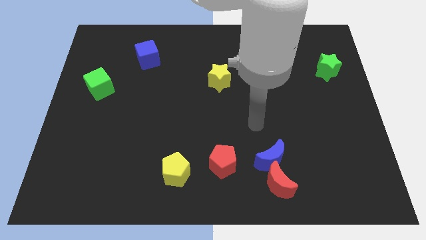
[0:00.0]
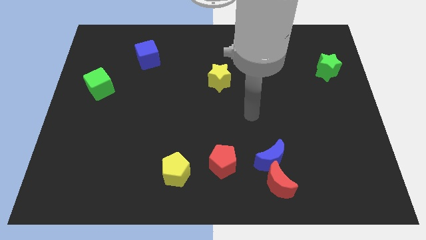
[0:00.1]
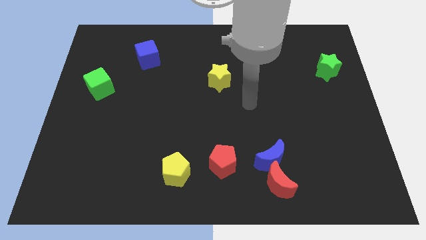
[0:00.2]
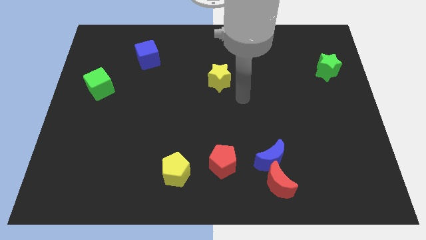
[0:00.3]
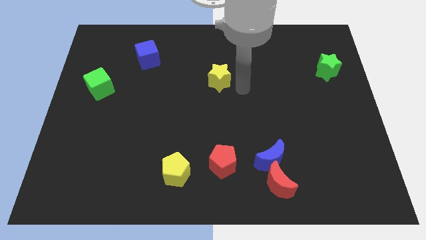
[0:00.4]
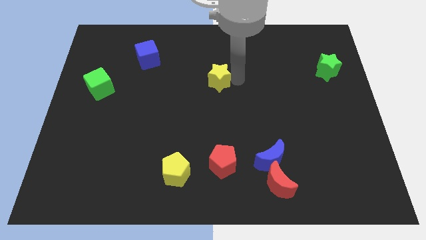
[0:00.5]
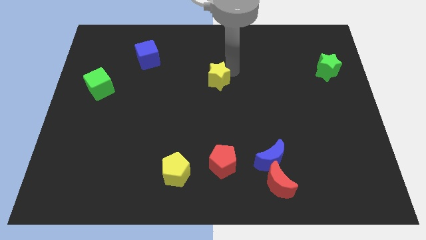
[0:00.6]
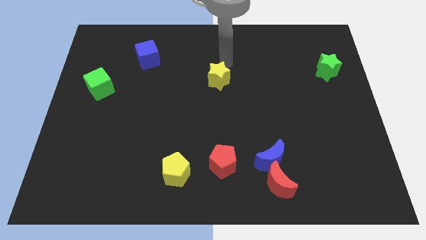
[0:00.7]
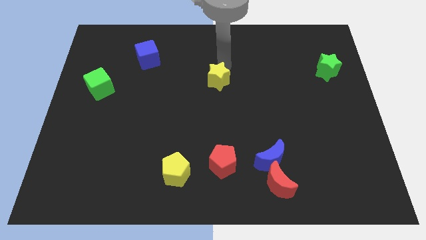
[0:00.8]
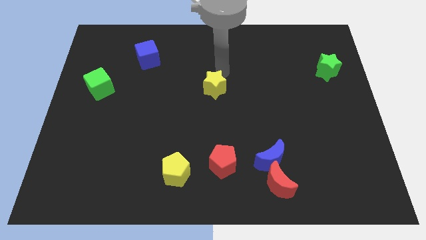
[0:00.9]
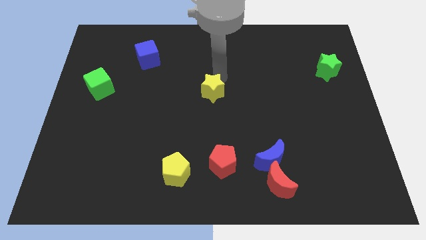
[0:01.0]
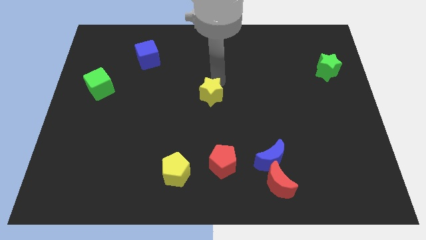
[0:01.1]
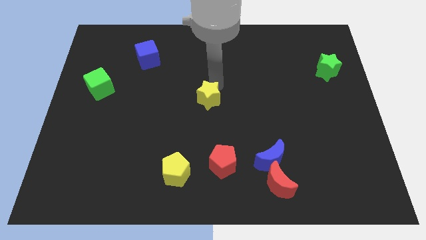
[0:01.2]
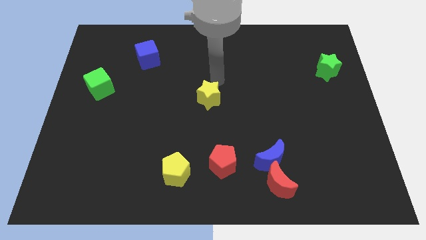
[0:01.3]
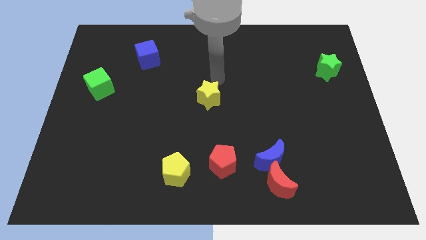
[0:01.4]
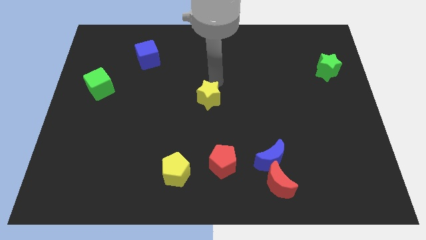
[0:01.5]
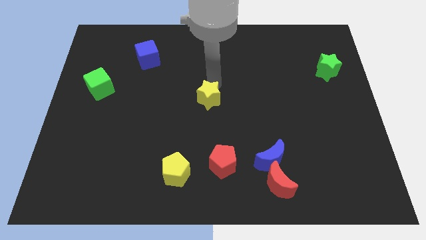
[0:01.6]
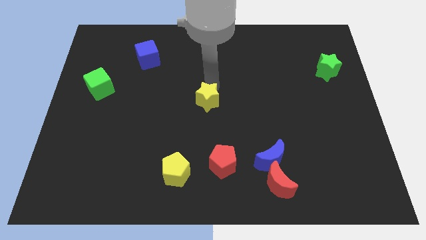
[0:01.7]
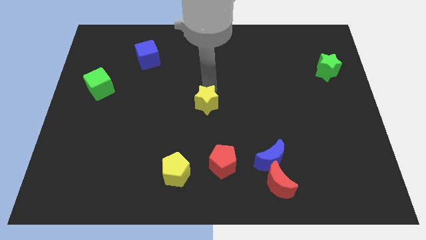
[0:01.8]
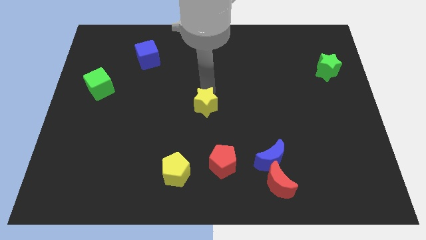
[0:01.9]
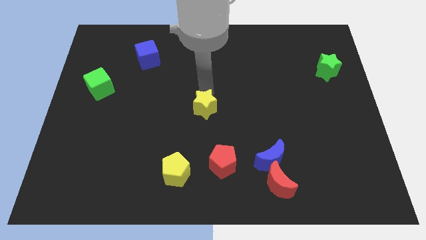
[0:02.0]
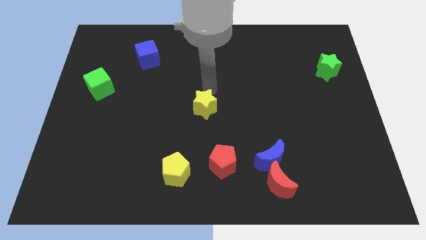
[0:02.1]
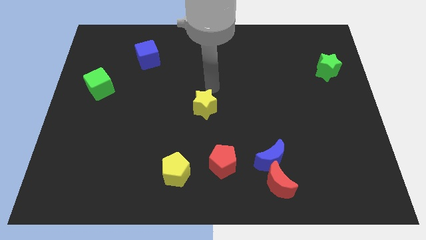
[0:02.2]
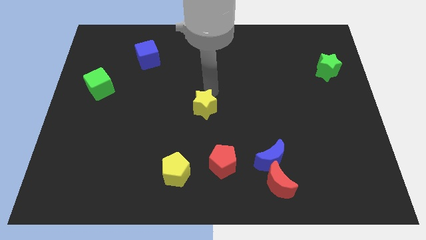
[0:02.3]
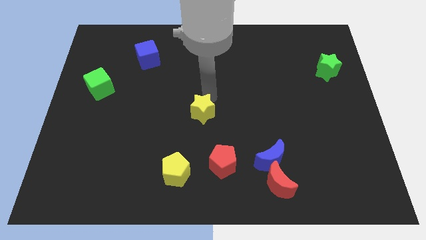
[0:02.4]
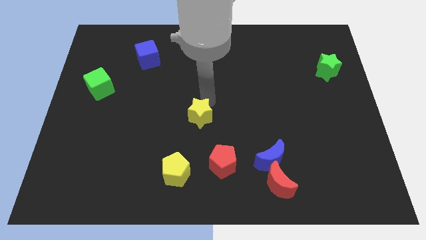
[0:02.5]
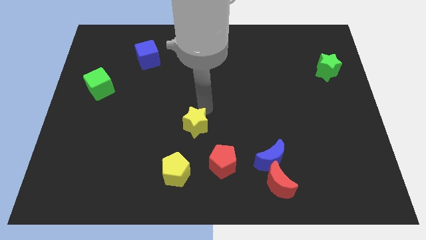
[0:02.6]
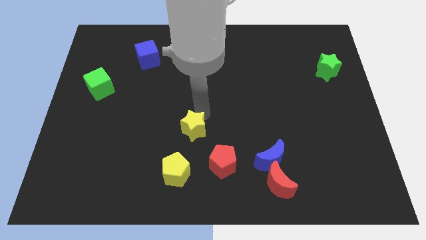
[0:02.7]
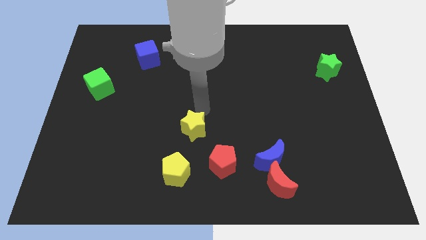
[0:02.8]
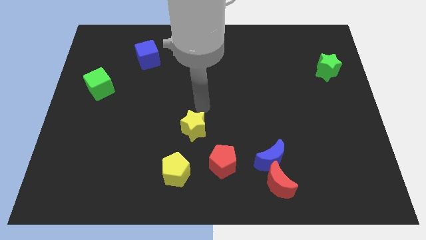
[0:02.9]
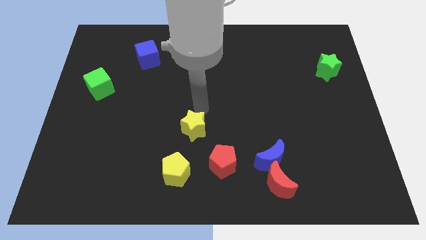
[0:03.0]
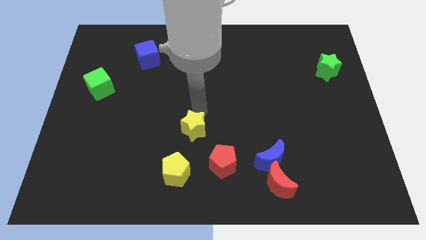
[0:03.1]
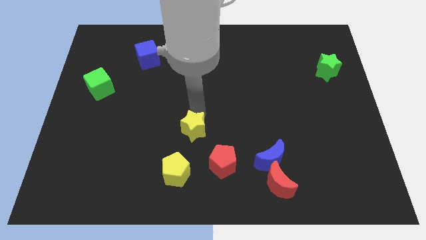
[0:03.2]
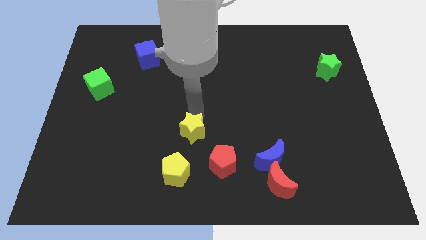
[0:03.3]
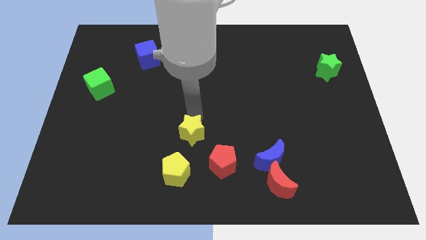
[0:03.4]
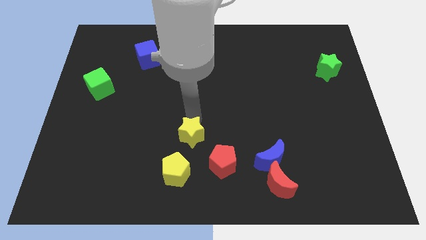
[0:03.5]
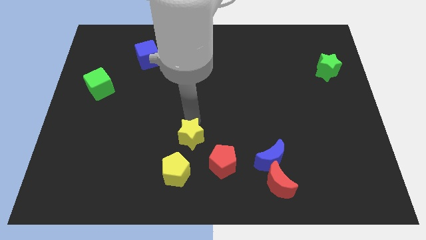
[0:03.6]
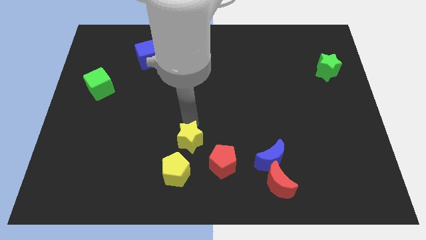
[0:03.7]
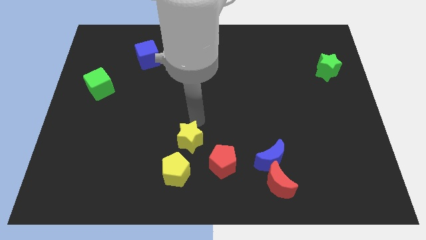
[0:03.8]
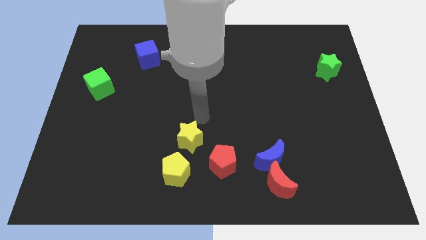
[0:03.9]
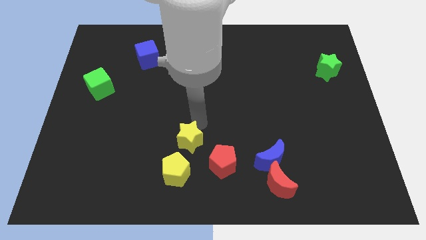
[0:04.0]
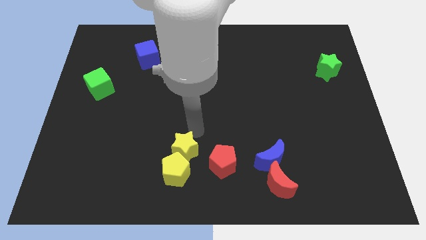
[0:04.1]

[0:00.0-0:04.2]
push the yellow star close to the yellow pentagon

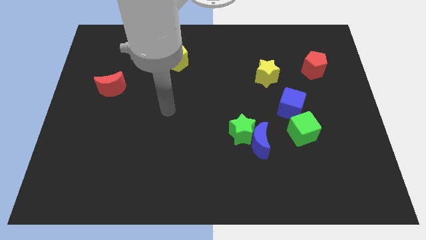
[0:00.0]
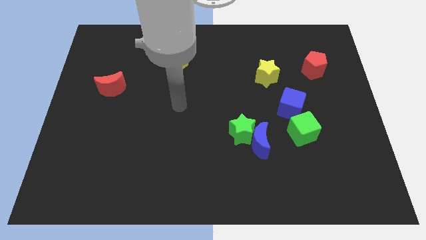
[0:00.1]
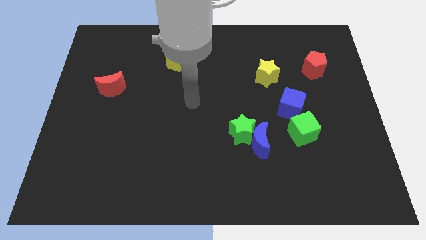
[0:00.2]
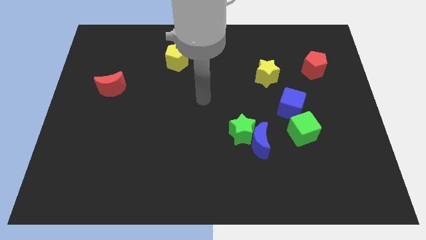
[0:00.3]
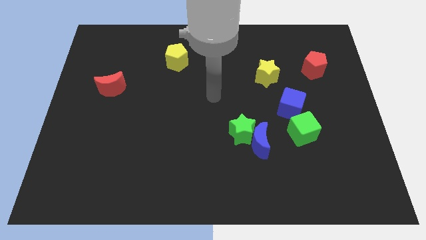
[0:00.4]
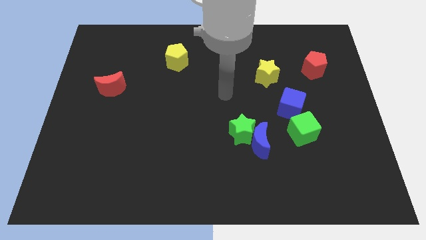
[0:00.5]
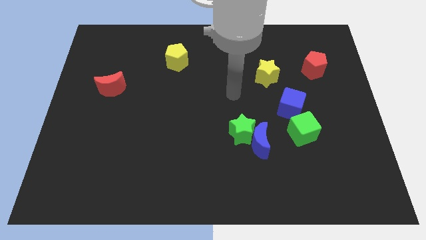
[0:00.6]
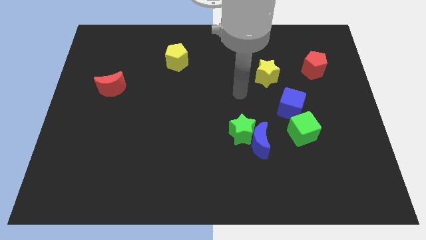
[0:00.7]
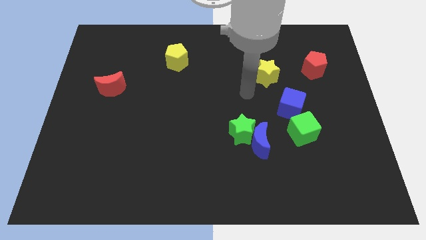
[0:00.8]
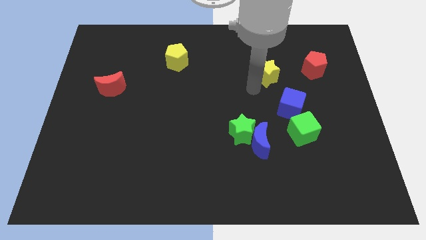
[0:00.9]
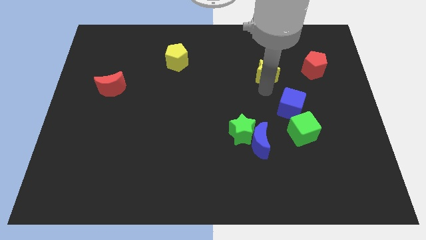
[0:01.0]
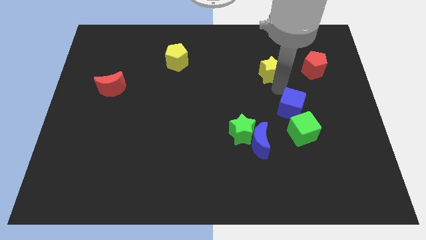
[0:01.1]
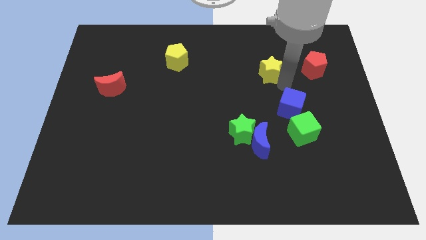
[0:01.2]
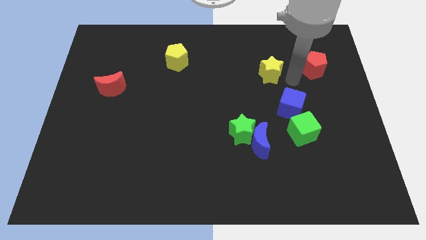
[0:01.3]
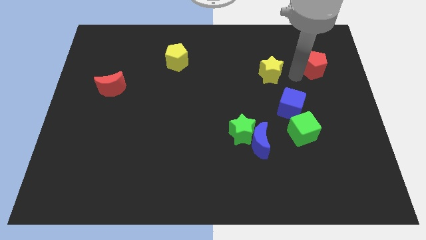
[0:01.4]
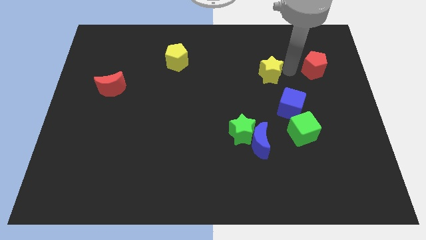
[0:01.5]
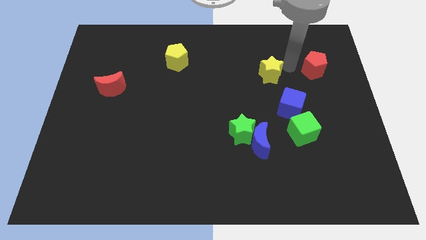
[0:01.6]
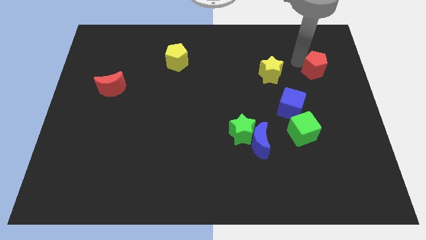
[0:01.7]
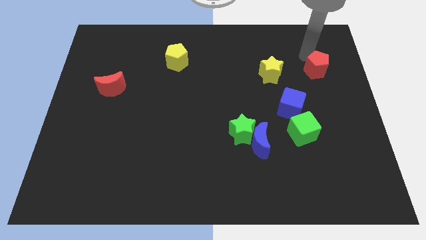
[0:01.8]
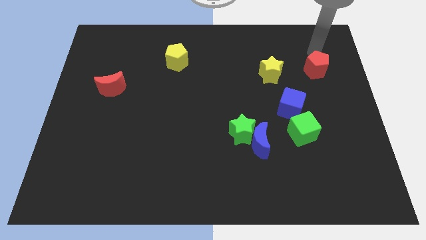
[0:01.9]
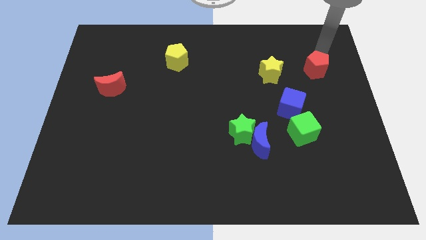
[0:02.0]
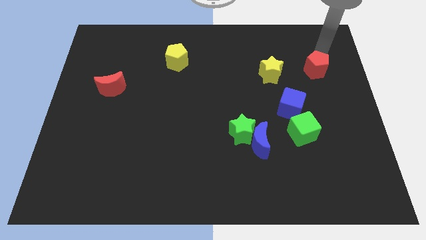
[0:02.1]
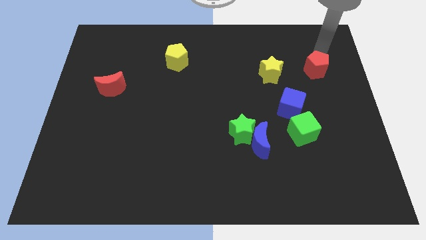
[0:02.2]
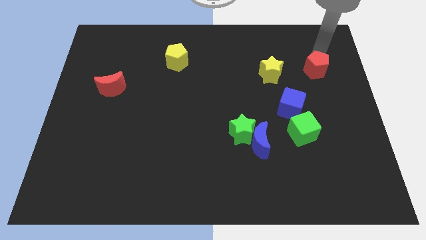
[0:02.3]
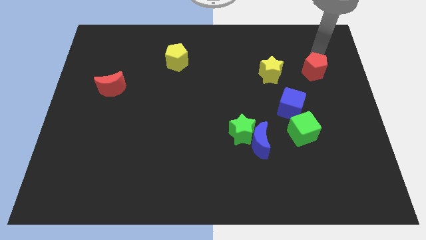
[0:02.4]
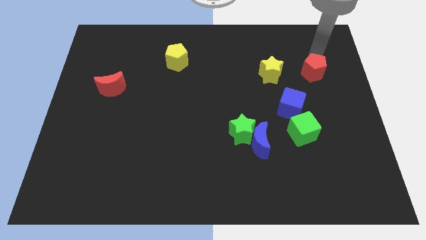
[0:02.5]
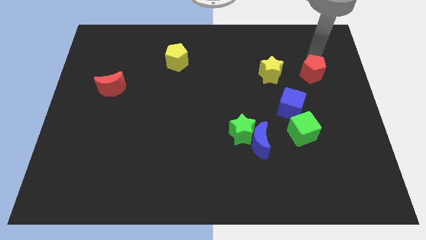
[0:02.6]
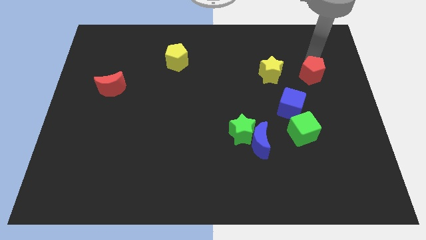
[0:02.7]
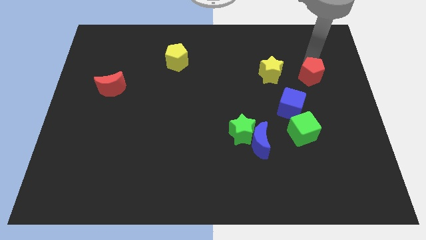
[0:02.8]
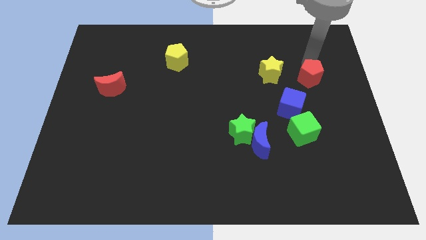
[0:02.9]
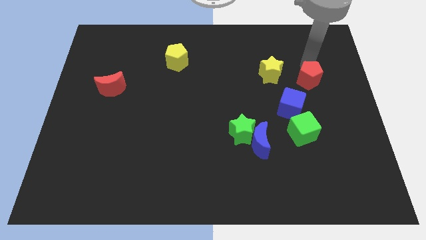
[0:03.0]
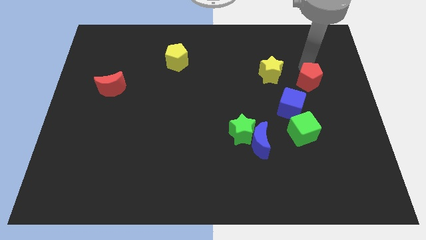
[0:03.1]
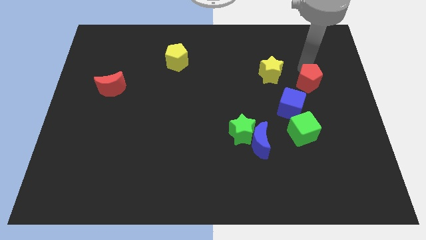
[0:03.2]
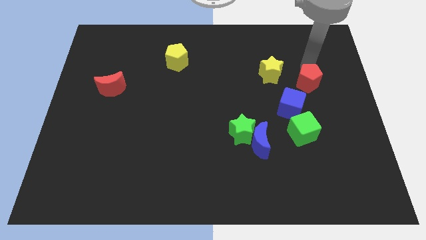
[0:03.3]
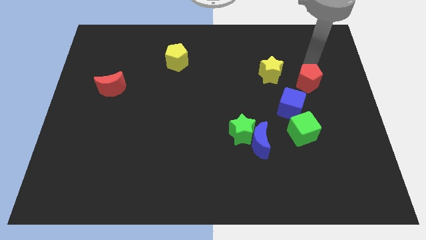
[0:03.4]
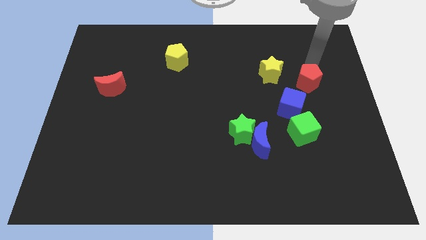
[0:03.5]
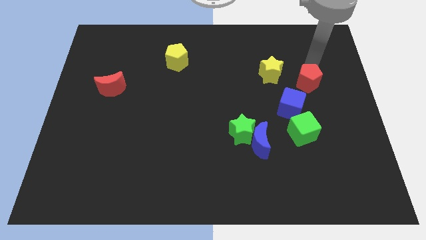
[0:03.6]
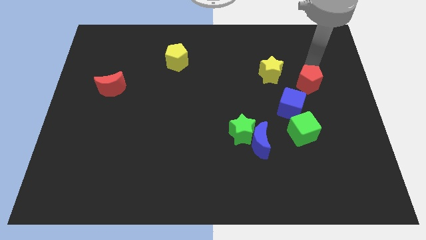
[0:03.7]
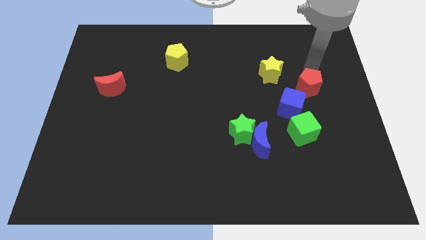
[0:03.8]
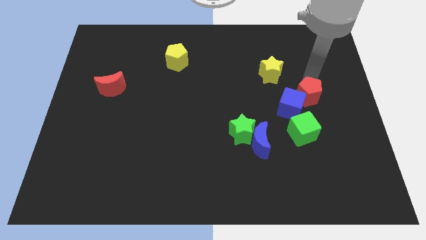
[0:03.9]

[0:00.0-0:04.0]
put the red pentagon towards the blue cube
